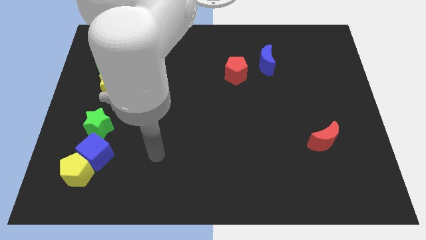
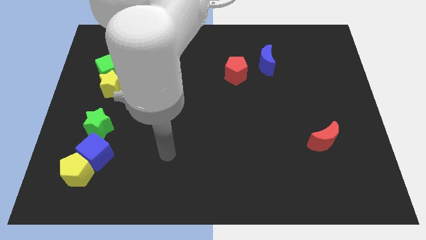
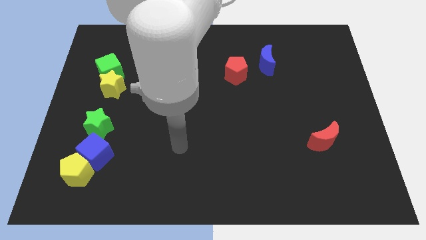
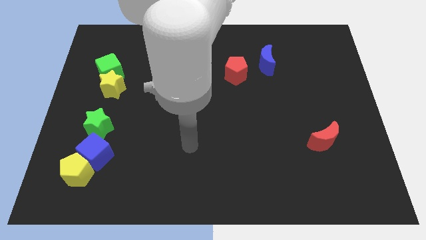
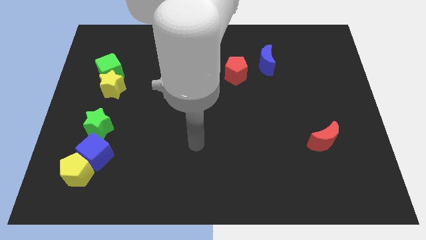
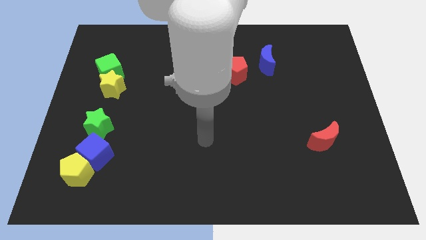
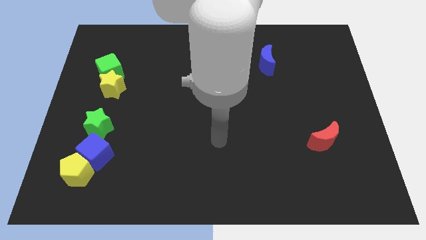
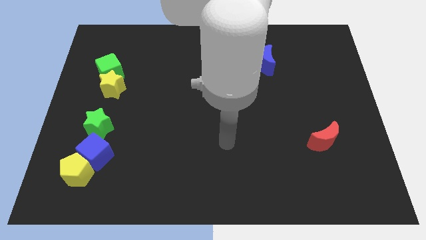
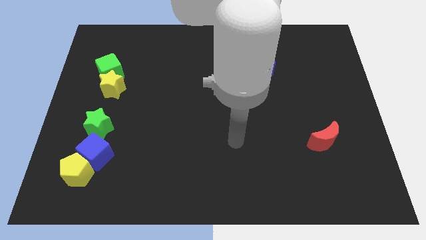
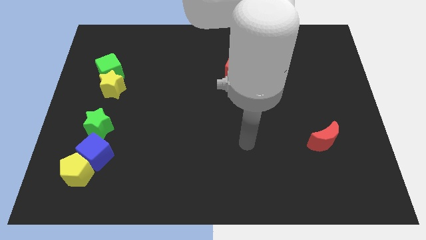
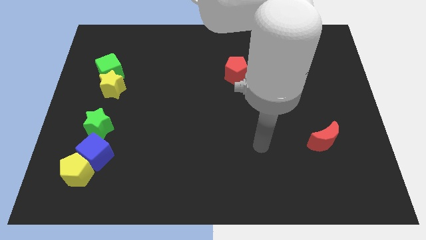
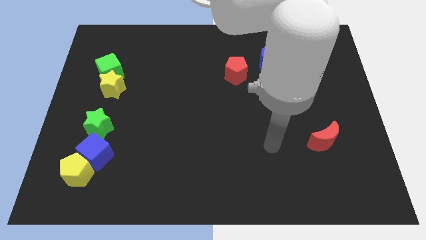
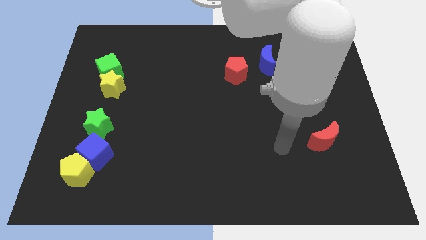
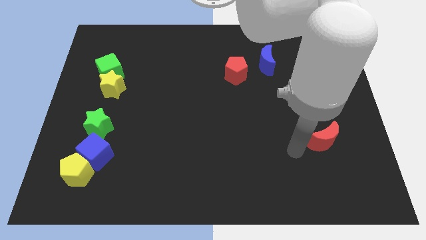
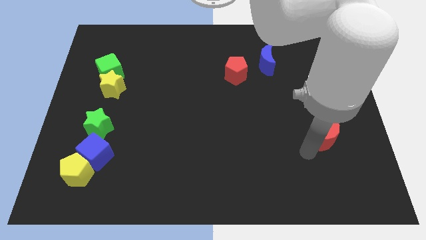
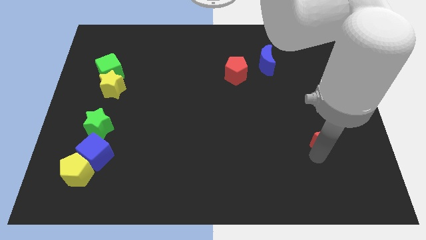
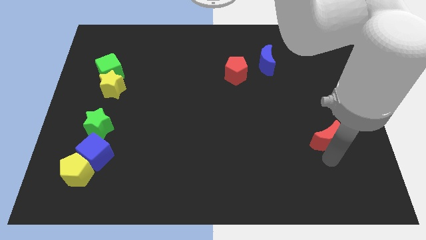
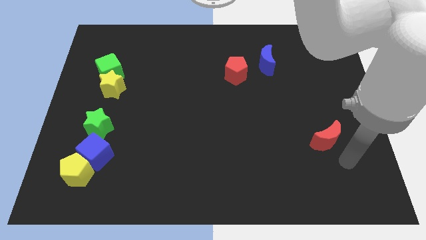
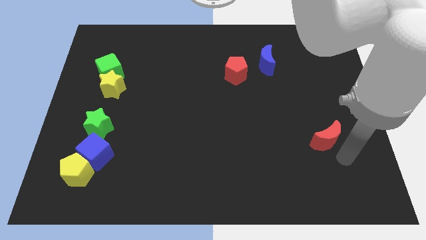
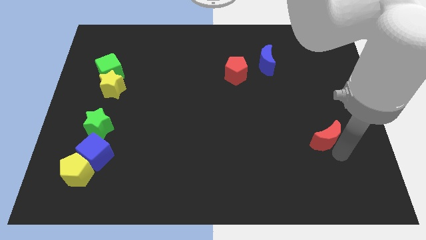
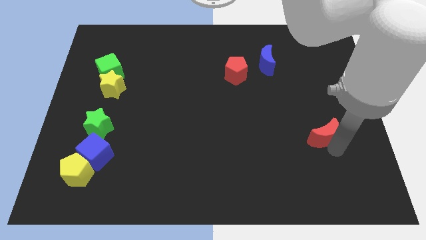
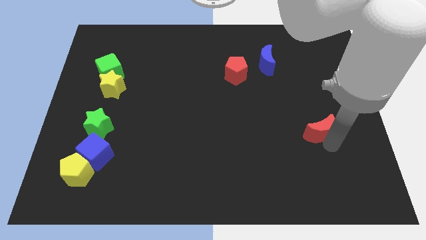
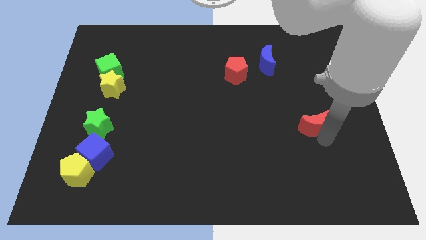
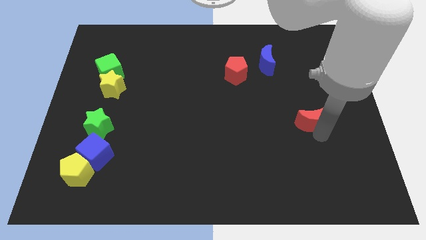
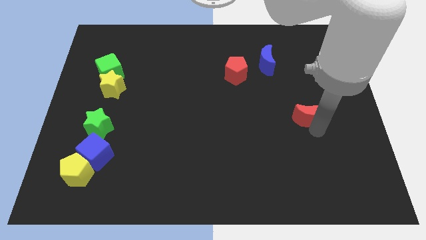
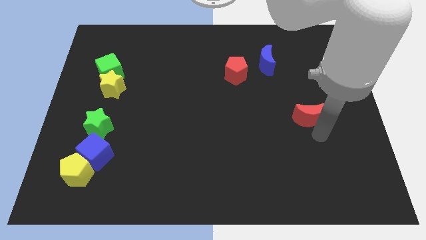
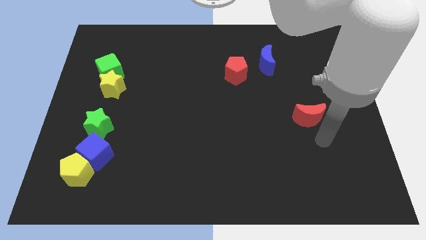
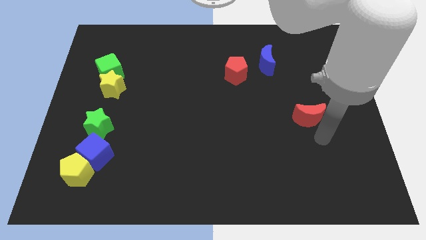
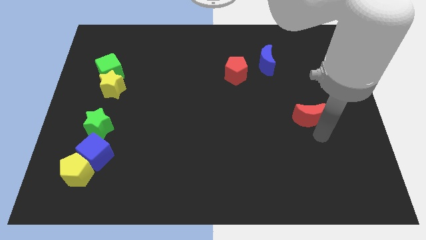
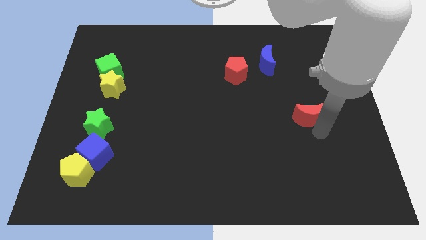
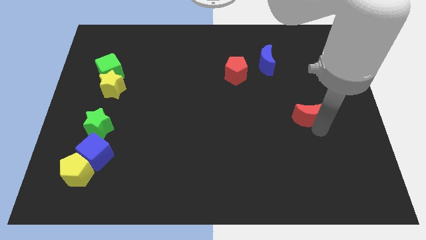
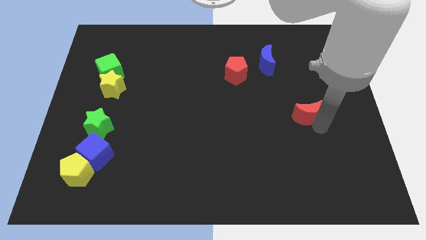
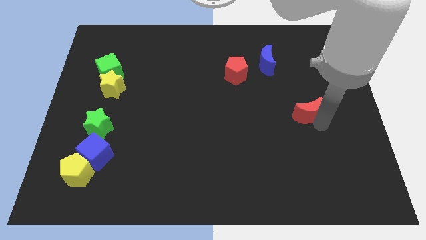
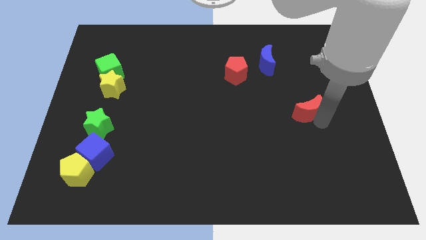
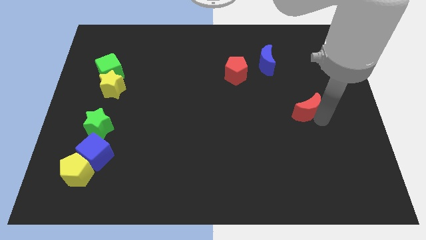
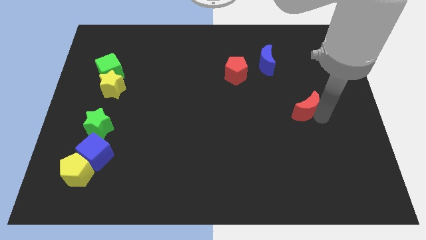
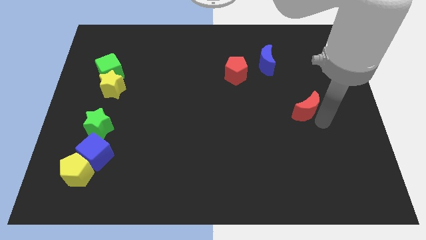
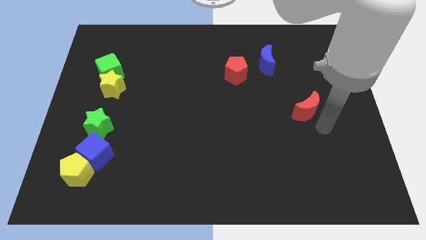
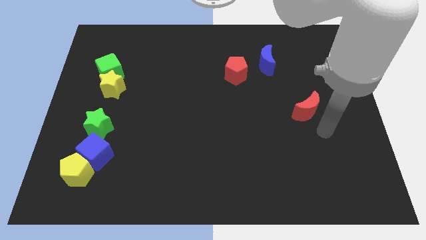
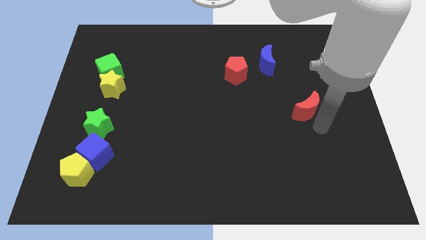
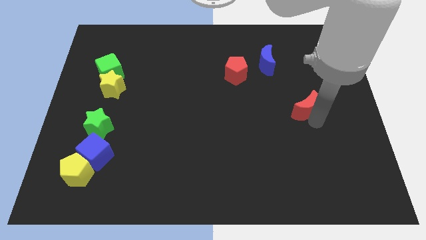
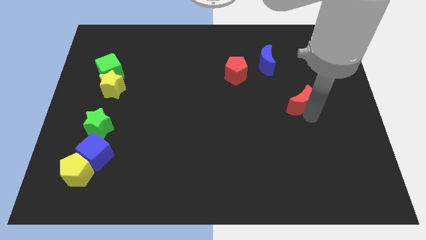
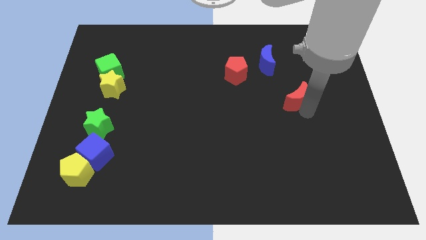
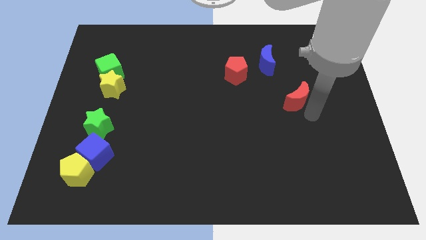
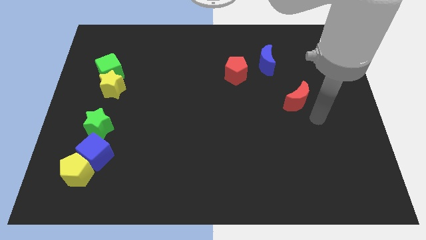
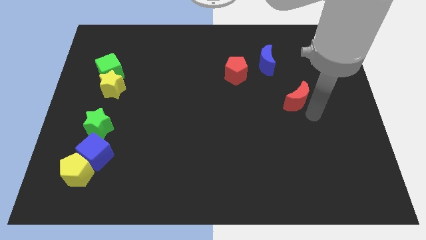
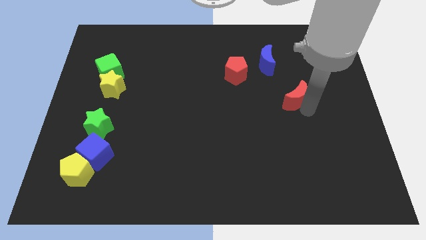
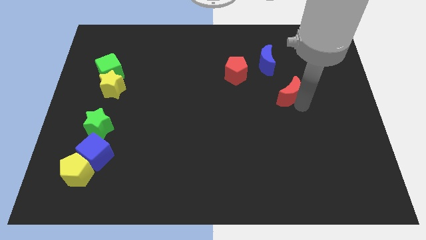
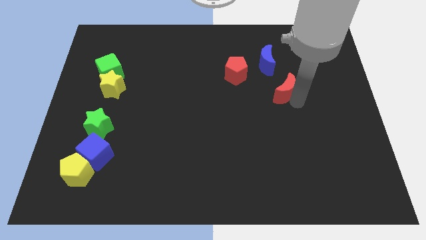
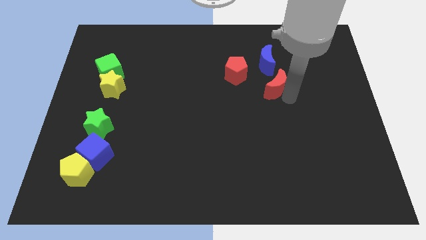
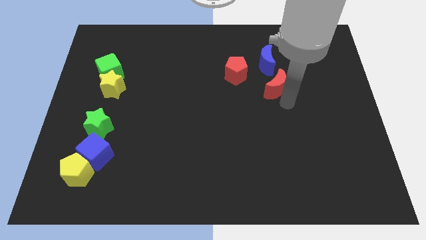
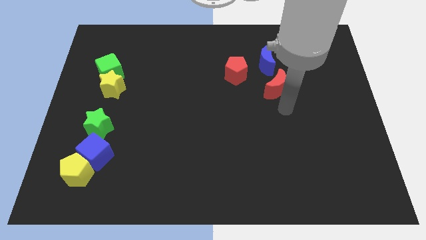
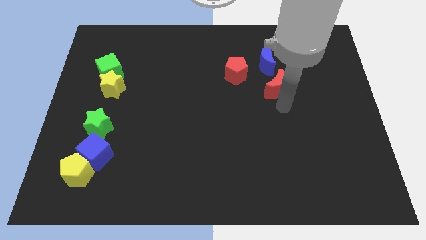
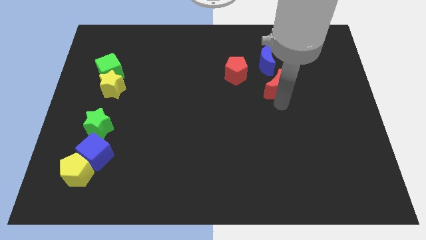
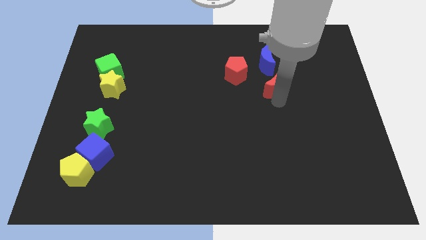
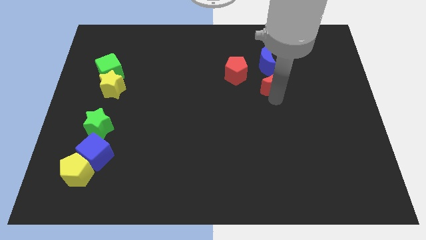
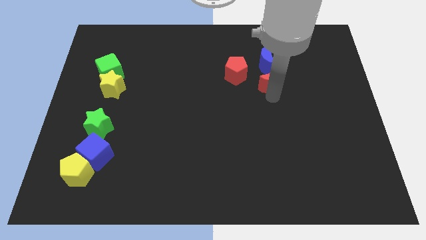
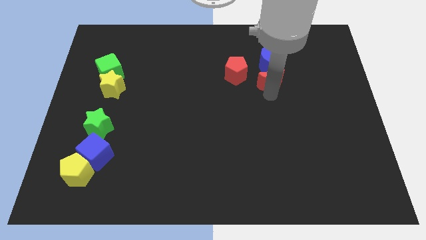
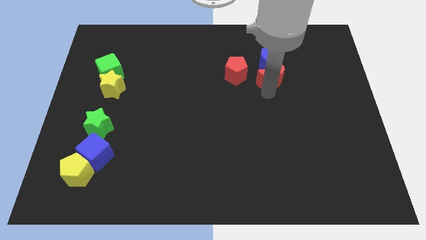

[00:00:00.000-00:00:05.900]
move the red moon next to the blue moon

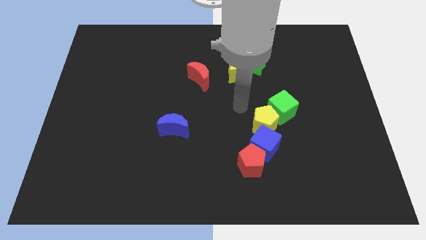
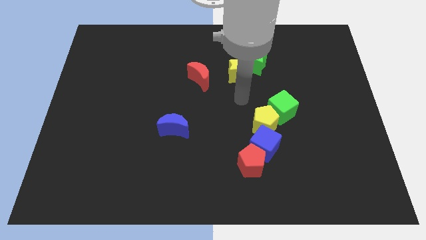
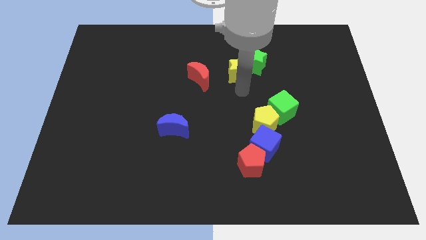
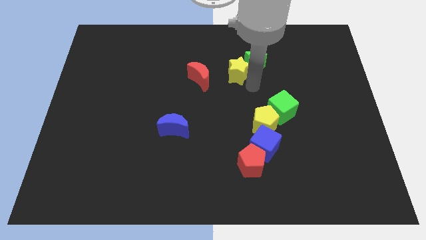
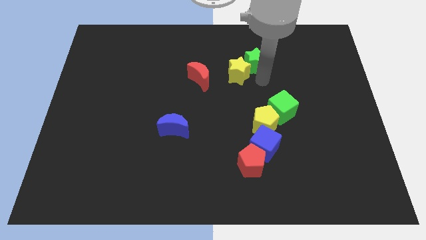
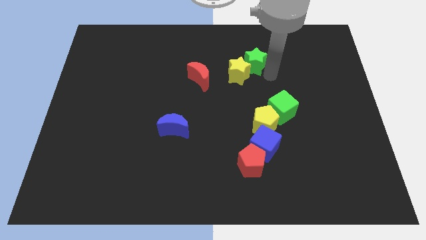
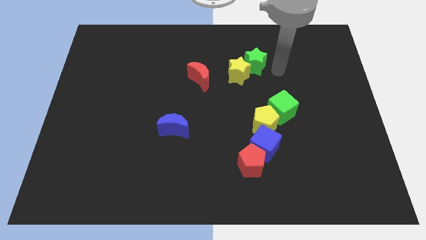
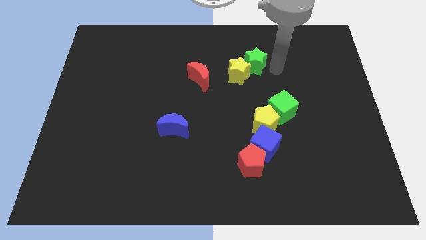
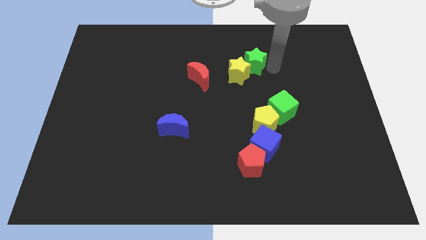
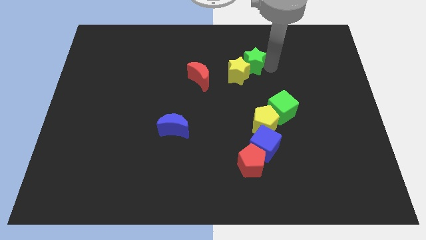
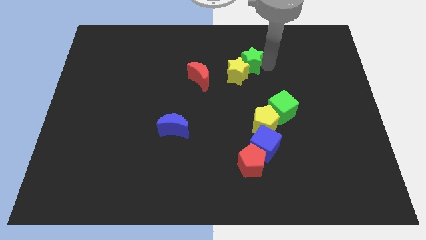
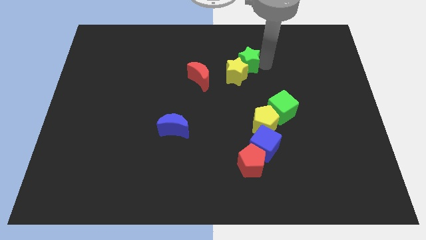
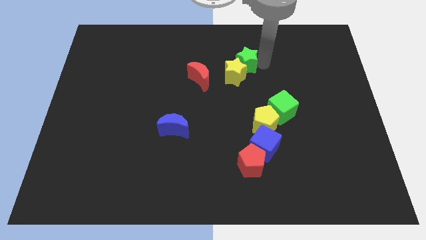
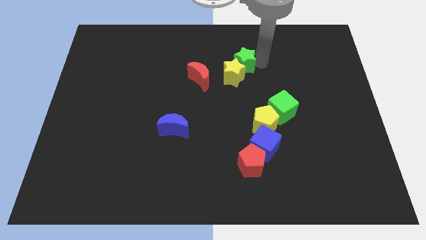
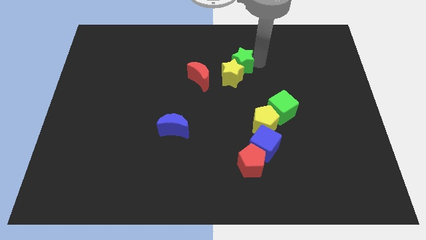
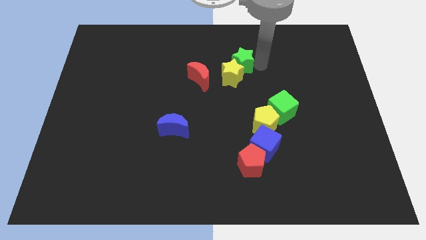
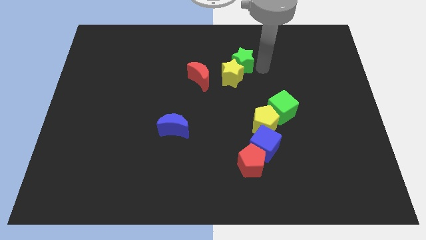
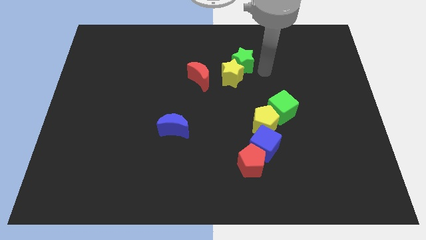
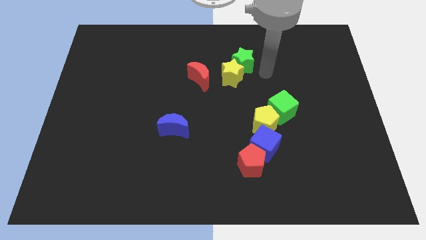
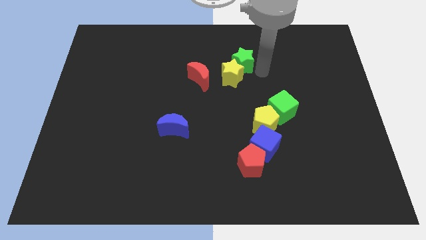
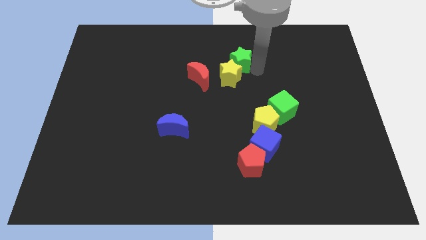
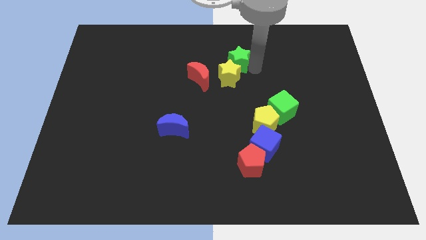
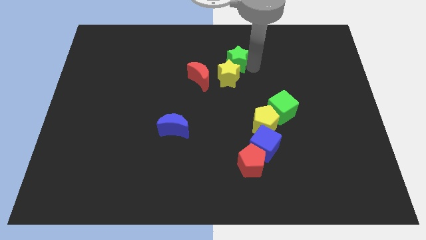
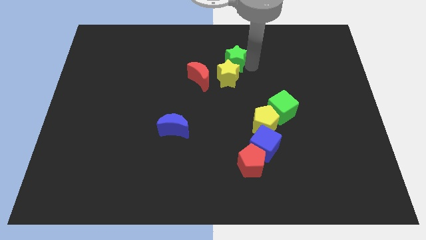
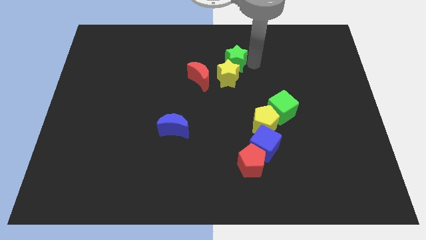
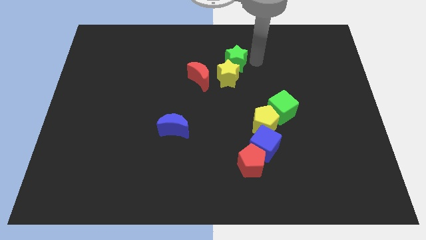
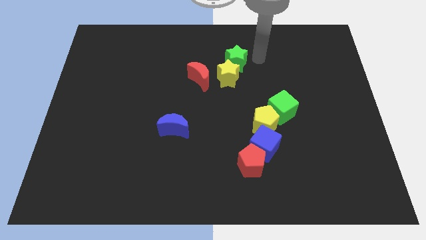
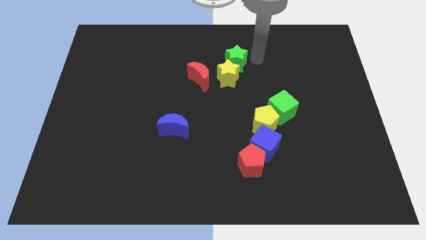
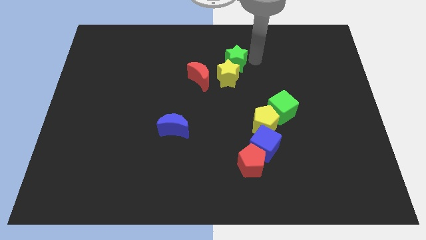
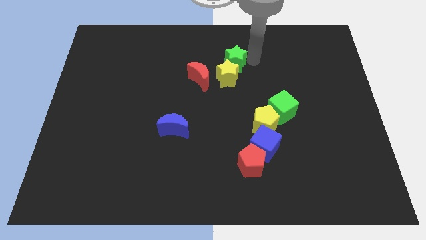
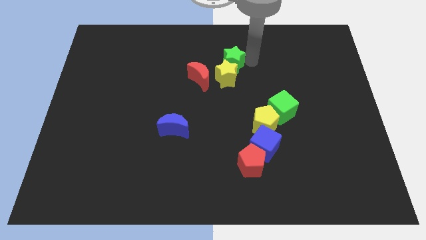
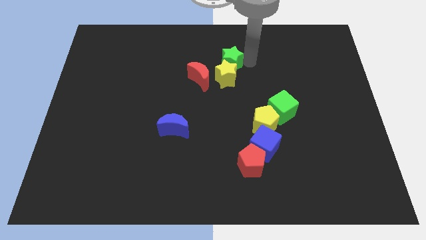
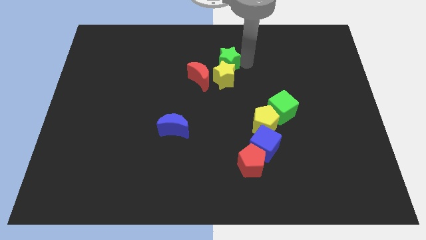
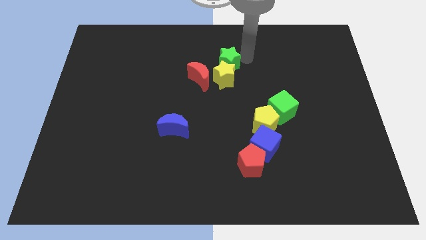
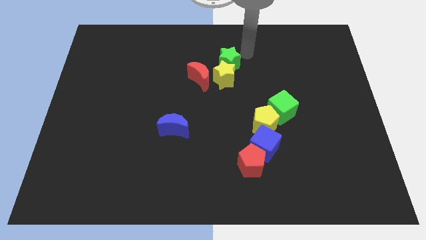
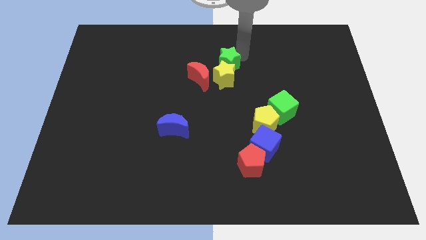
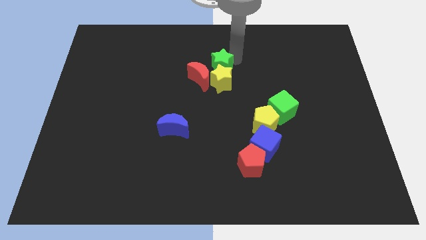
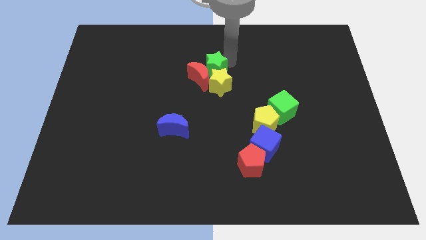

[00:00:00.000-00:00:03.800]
put the green star towards the red moon
